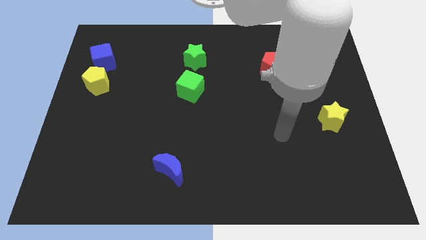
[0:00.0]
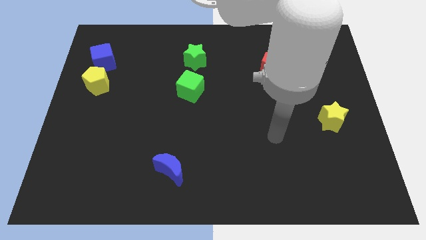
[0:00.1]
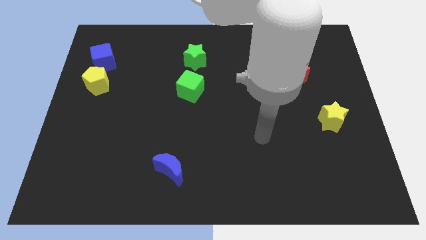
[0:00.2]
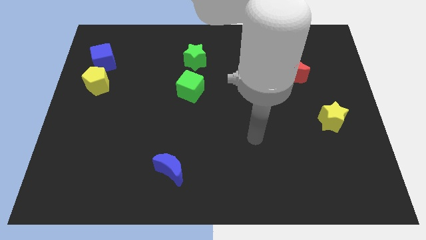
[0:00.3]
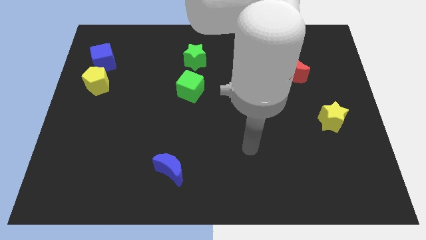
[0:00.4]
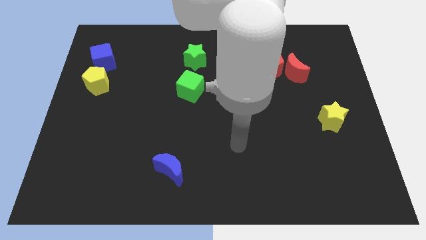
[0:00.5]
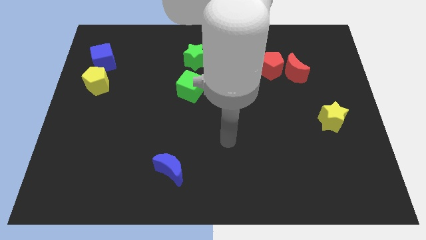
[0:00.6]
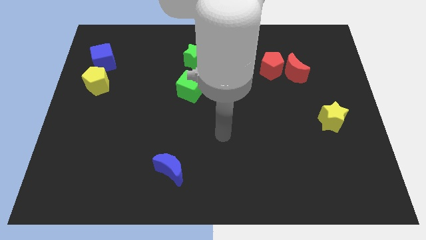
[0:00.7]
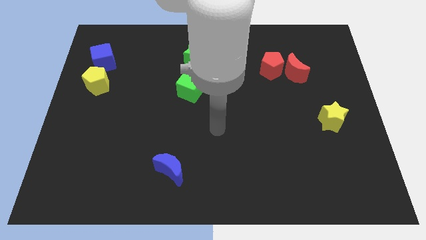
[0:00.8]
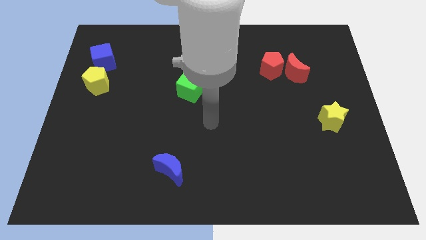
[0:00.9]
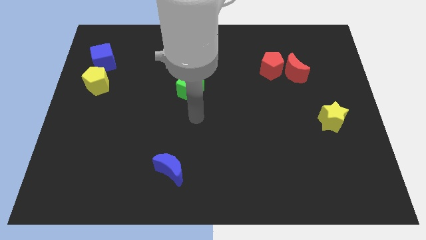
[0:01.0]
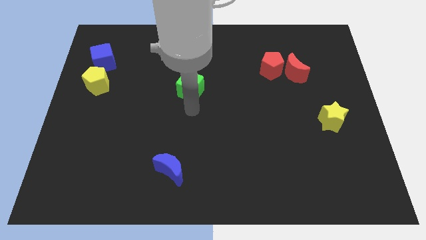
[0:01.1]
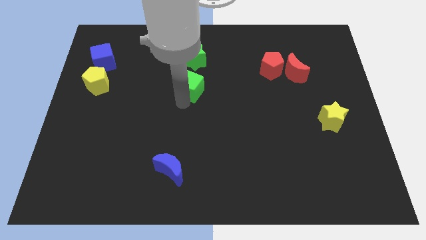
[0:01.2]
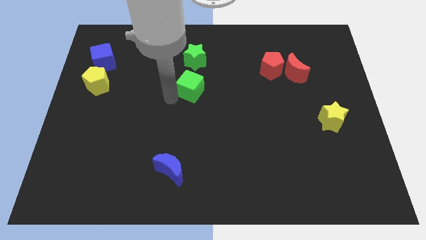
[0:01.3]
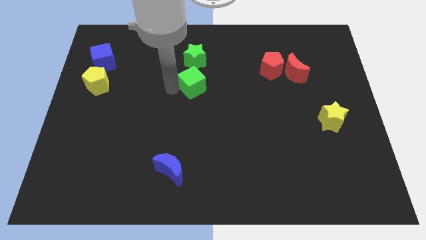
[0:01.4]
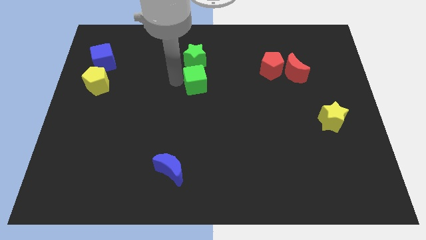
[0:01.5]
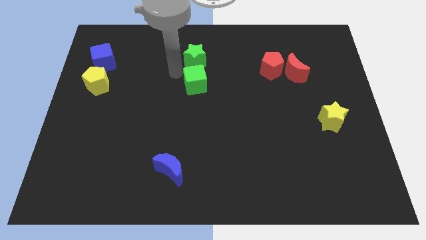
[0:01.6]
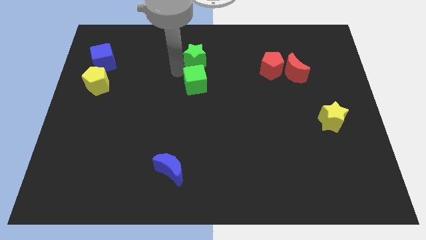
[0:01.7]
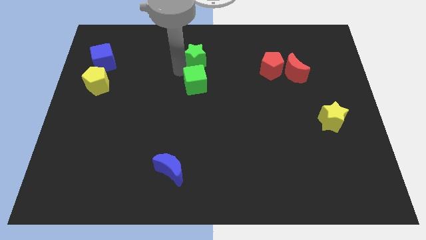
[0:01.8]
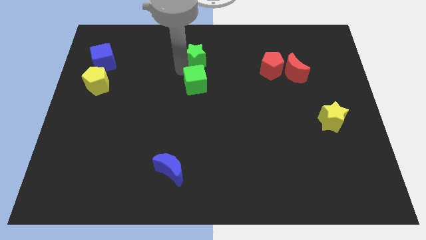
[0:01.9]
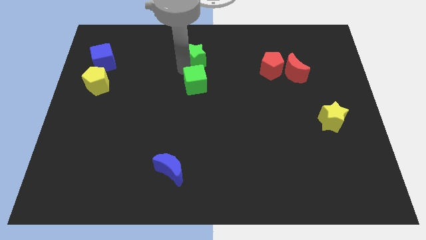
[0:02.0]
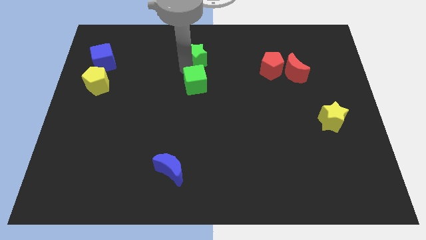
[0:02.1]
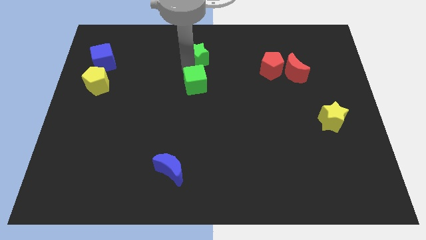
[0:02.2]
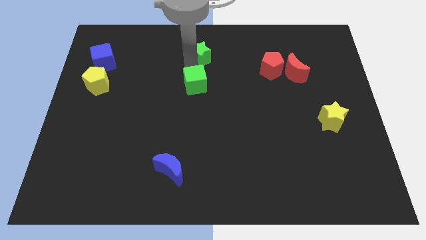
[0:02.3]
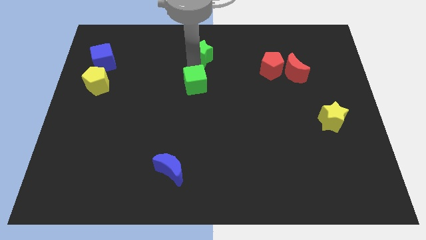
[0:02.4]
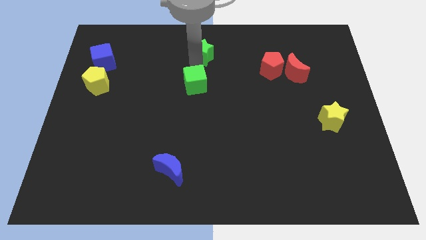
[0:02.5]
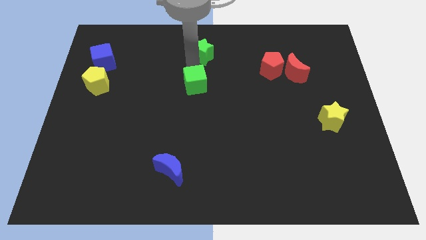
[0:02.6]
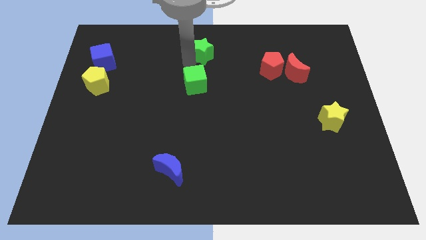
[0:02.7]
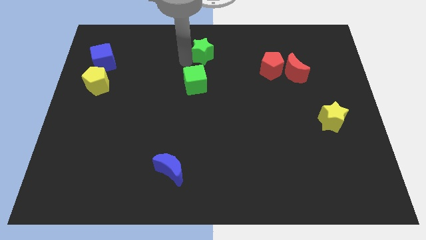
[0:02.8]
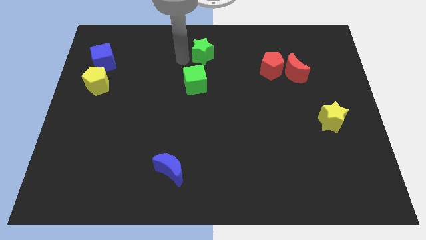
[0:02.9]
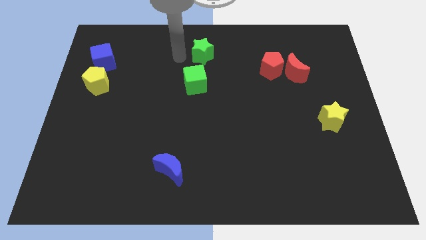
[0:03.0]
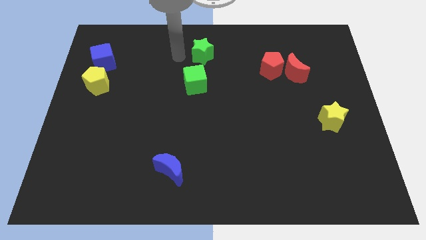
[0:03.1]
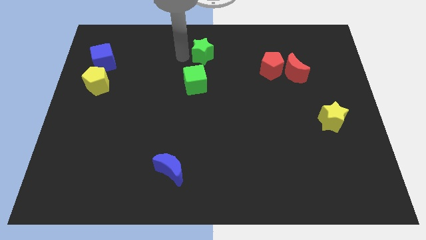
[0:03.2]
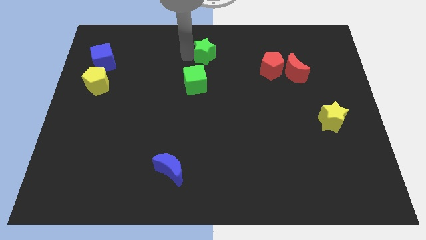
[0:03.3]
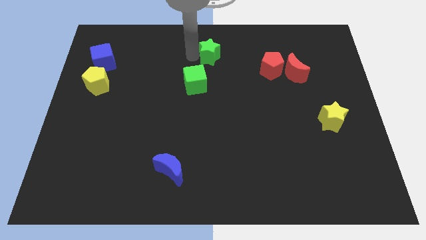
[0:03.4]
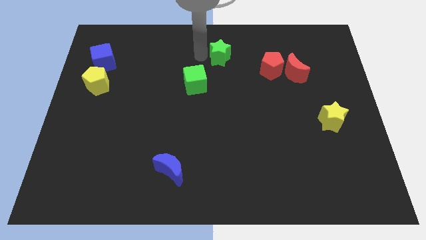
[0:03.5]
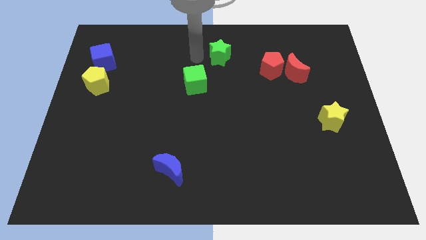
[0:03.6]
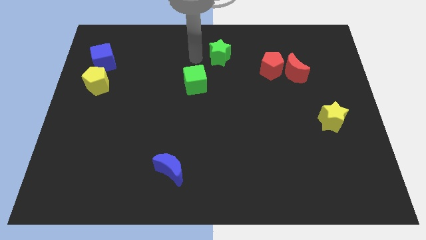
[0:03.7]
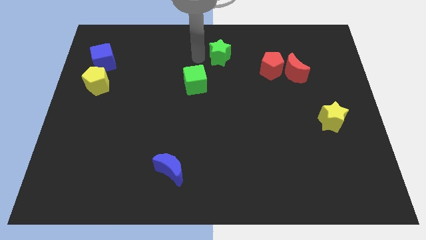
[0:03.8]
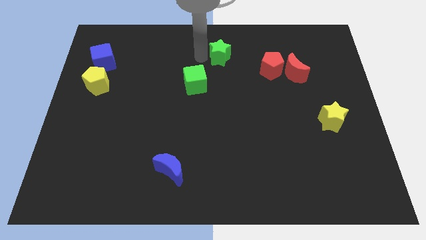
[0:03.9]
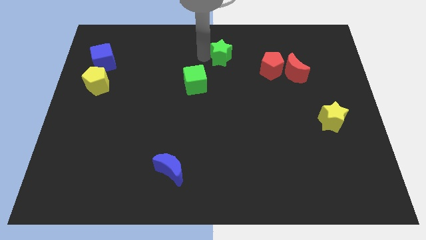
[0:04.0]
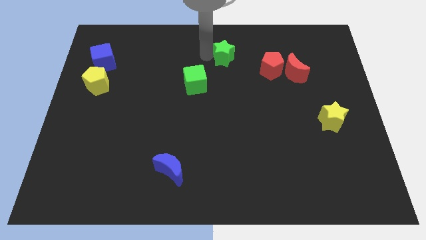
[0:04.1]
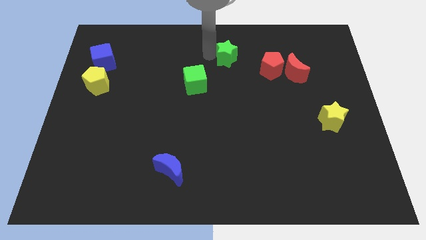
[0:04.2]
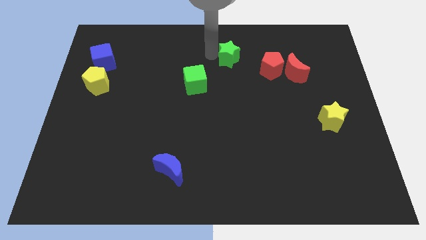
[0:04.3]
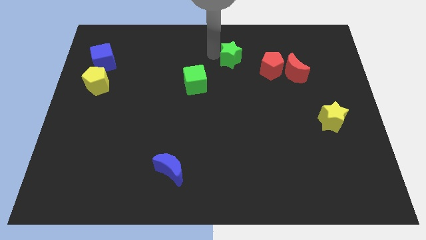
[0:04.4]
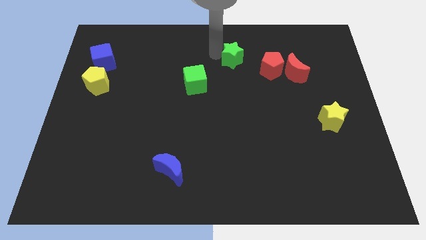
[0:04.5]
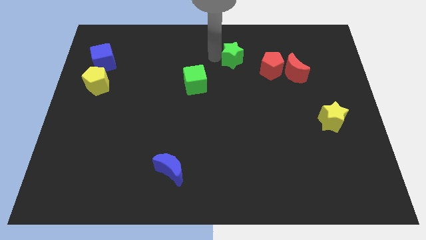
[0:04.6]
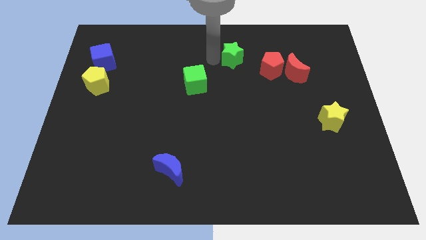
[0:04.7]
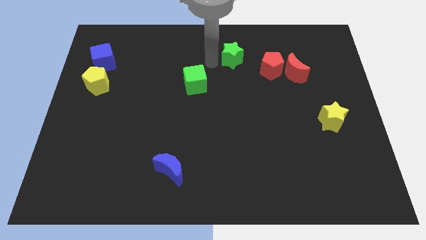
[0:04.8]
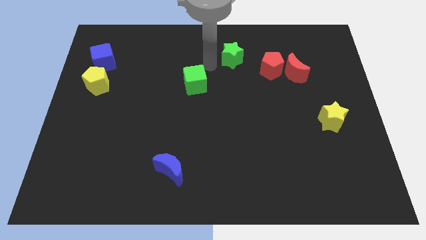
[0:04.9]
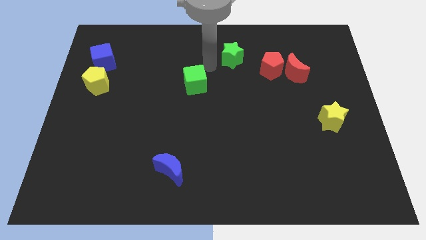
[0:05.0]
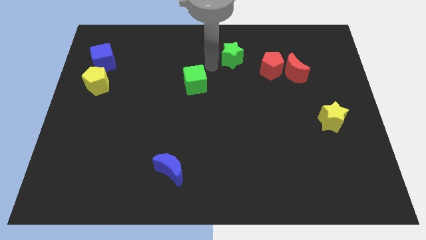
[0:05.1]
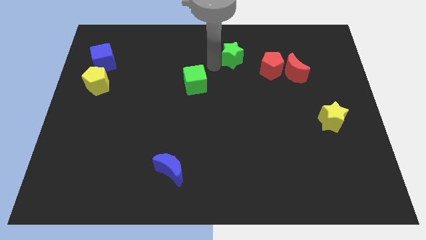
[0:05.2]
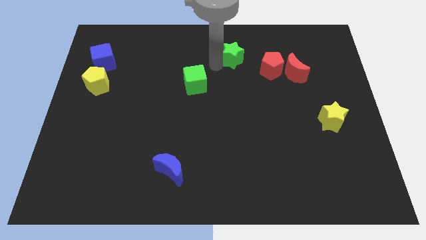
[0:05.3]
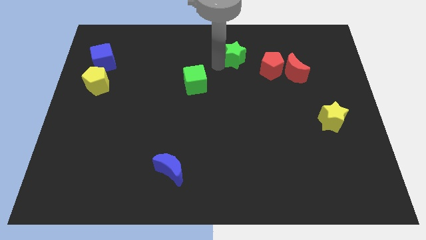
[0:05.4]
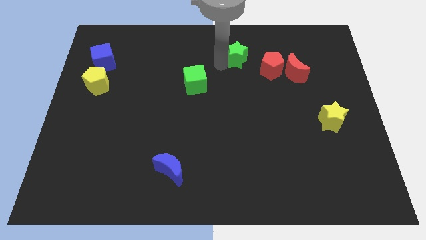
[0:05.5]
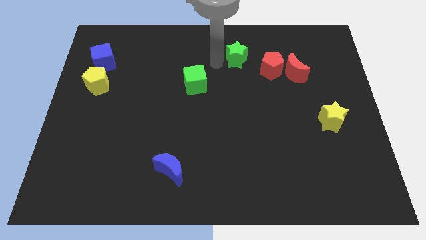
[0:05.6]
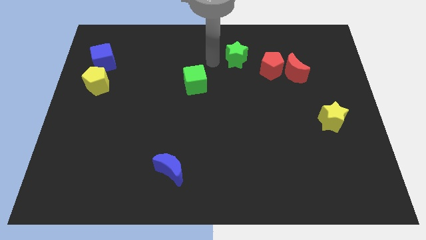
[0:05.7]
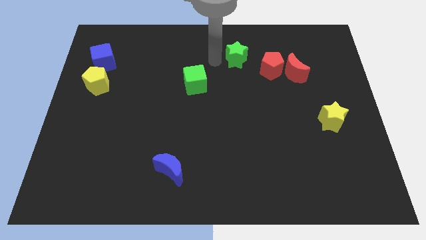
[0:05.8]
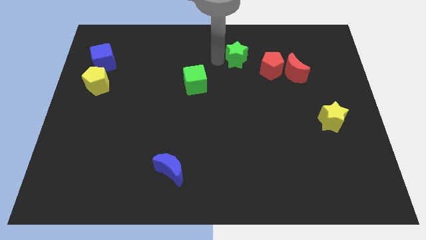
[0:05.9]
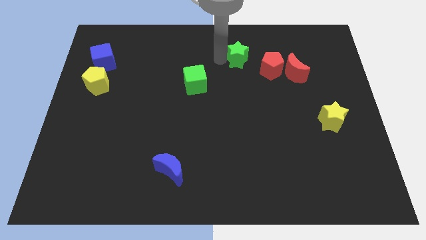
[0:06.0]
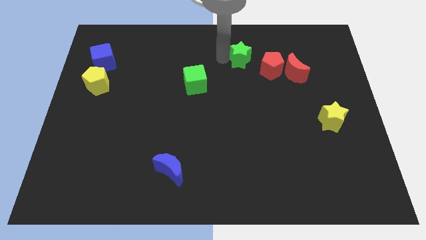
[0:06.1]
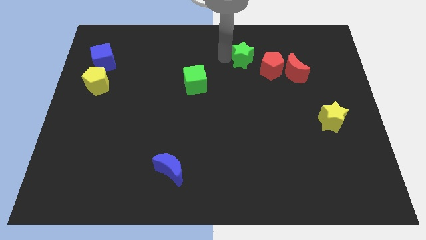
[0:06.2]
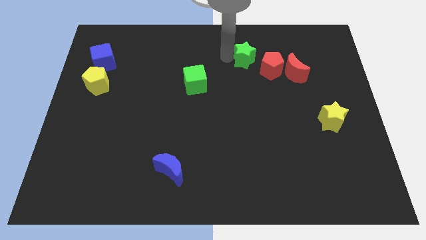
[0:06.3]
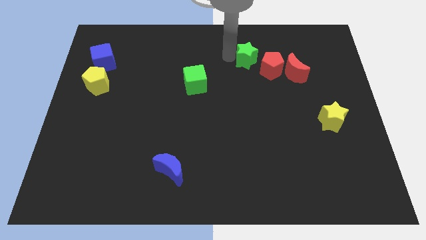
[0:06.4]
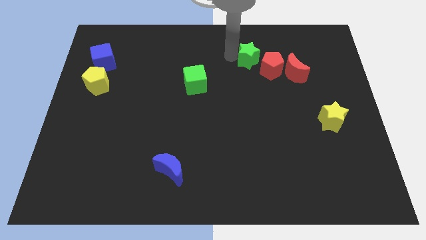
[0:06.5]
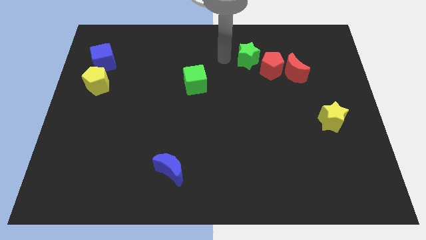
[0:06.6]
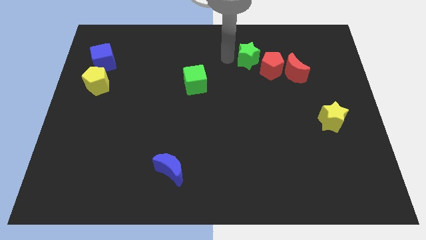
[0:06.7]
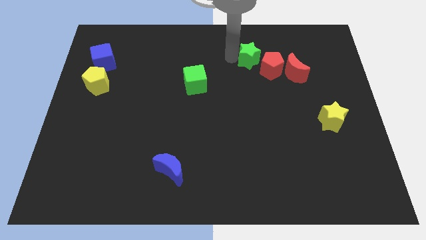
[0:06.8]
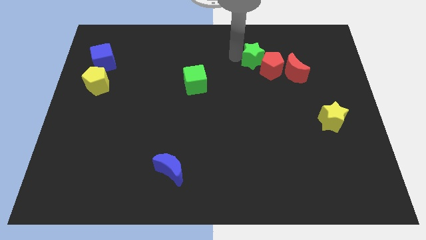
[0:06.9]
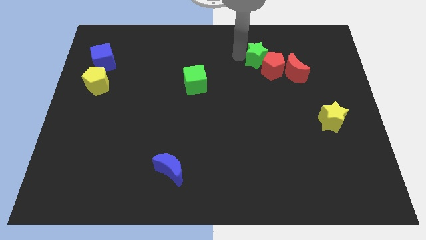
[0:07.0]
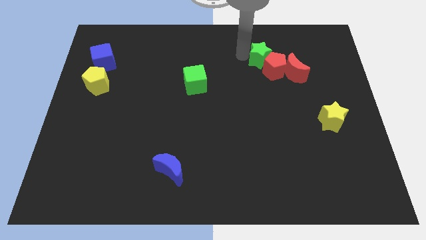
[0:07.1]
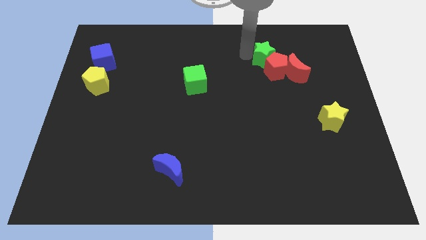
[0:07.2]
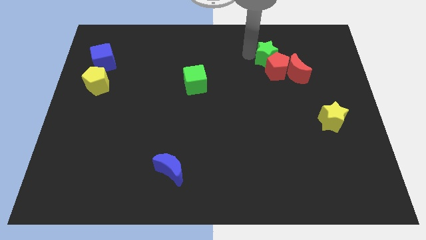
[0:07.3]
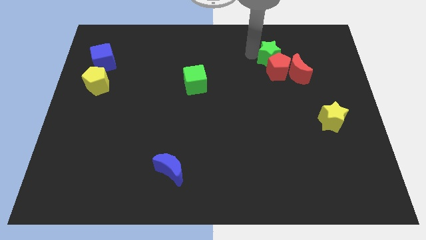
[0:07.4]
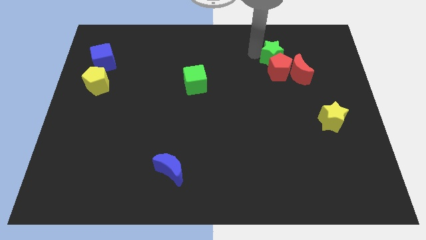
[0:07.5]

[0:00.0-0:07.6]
slide the green star to the right

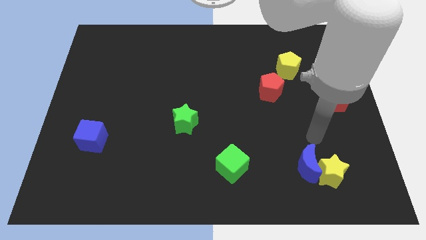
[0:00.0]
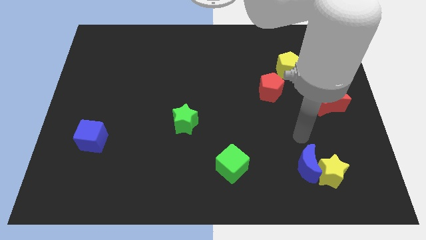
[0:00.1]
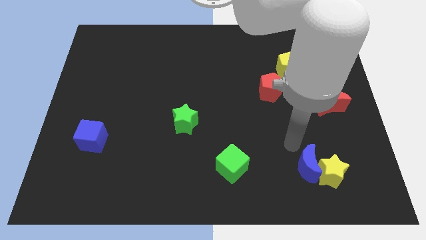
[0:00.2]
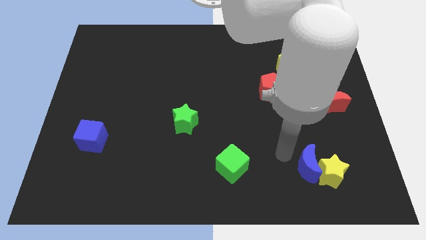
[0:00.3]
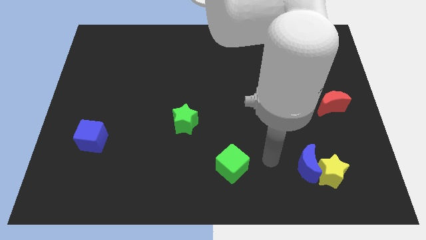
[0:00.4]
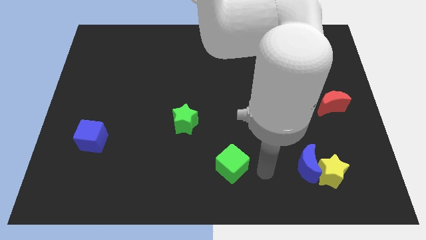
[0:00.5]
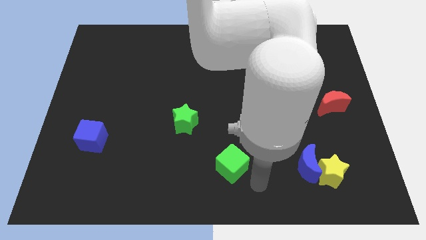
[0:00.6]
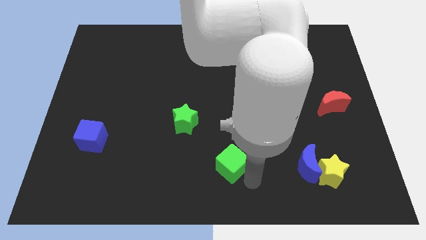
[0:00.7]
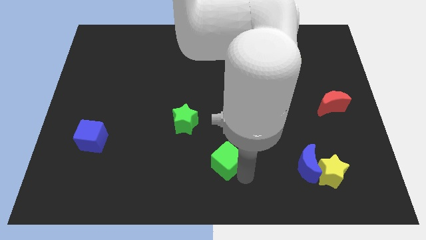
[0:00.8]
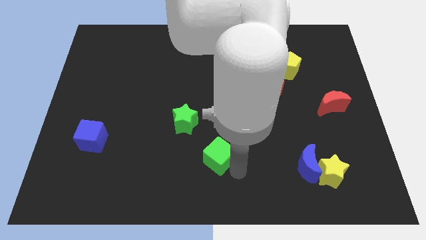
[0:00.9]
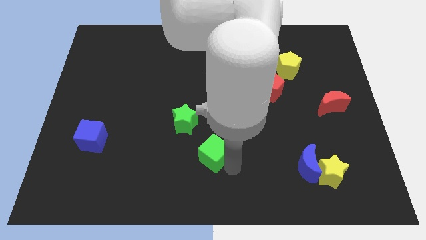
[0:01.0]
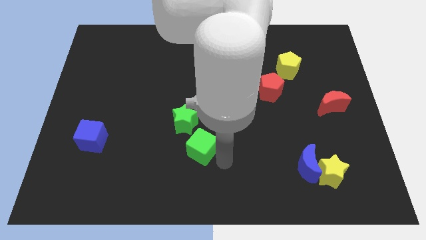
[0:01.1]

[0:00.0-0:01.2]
slightly move the green cube upwards and to the left
